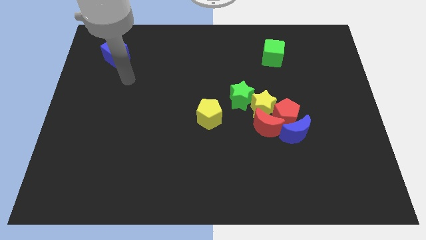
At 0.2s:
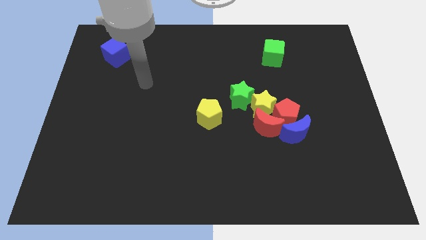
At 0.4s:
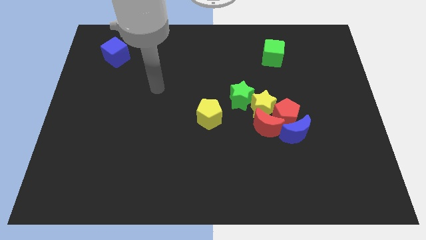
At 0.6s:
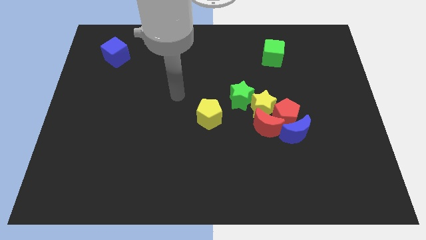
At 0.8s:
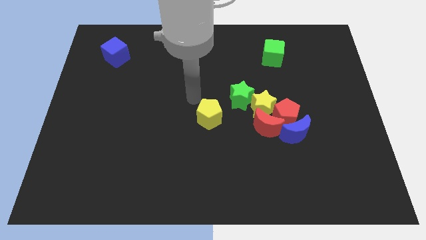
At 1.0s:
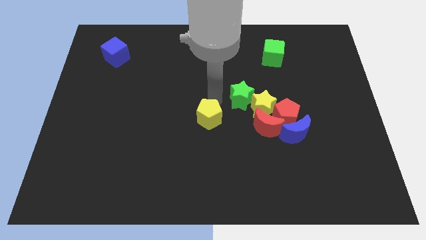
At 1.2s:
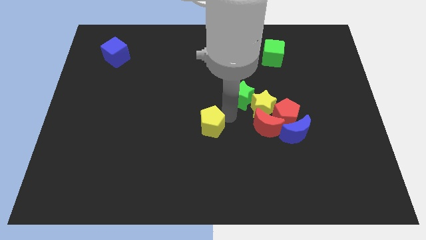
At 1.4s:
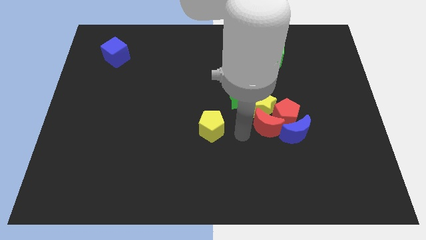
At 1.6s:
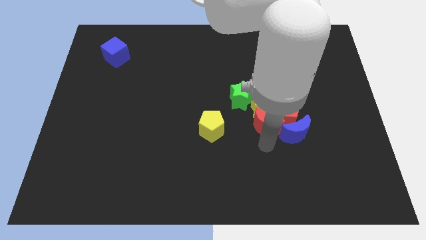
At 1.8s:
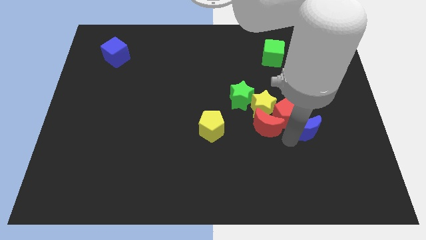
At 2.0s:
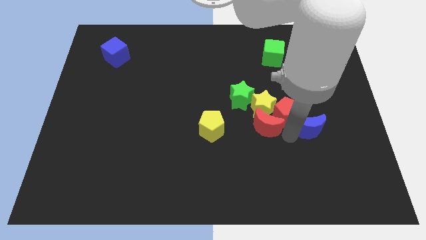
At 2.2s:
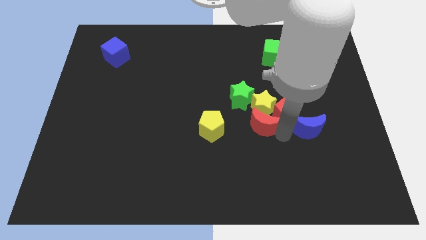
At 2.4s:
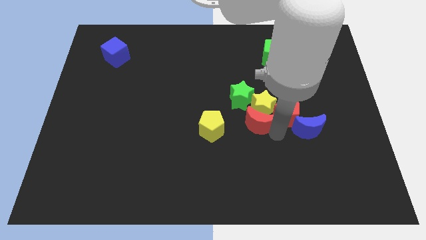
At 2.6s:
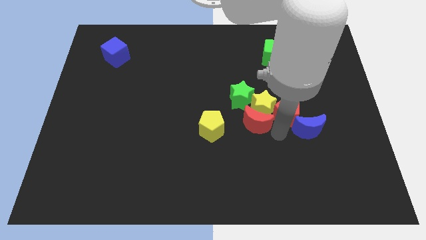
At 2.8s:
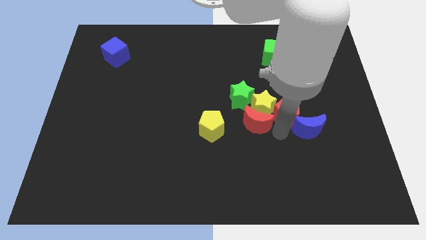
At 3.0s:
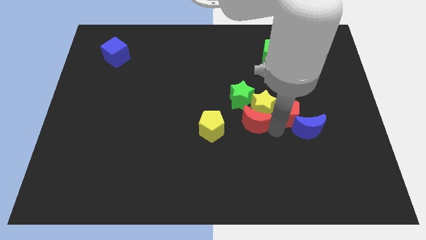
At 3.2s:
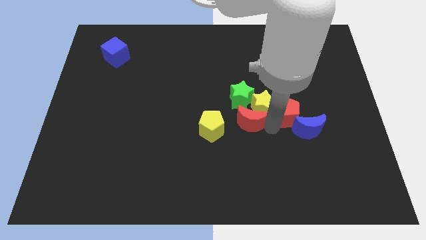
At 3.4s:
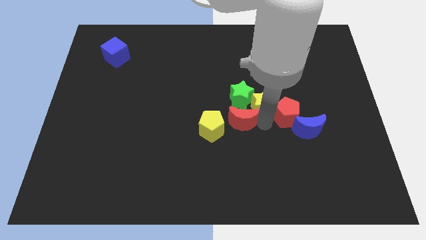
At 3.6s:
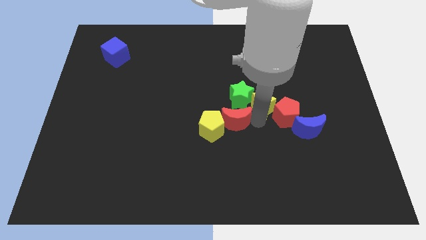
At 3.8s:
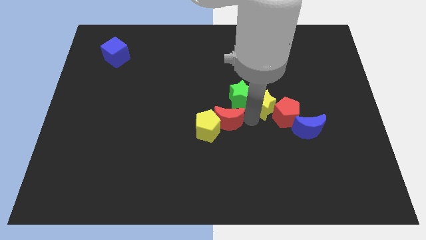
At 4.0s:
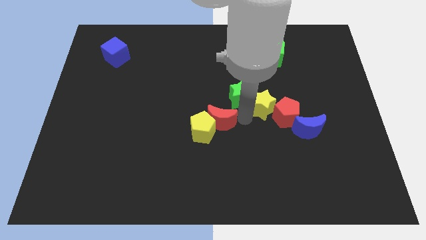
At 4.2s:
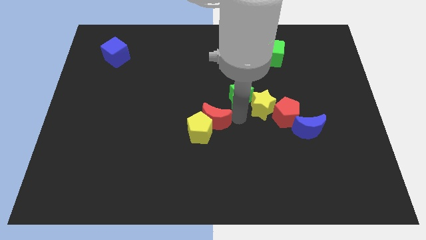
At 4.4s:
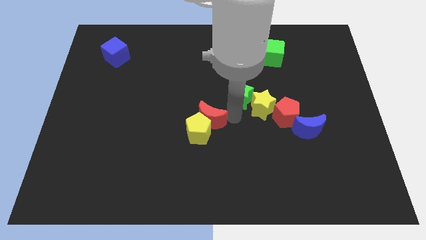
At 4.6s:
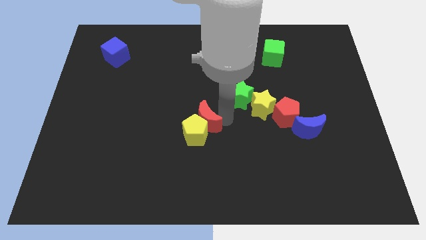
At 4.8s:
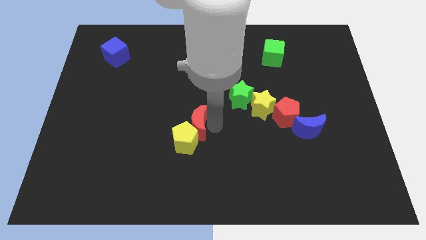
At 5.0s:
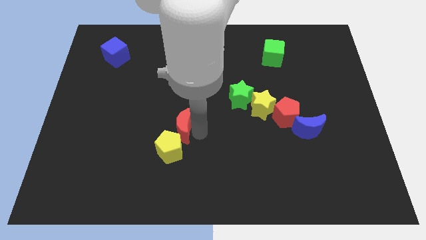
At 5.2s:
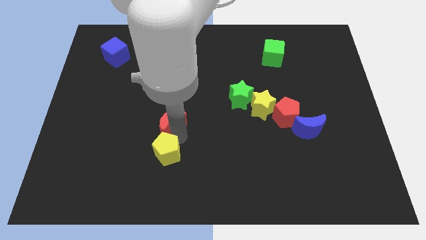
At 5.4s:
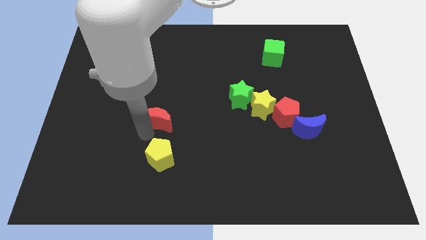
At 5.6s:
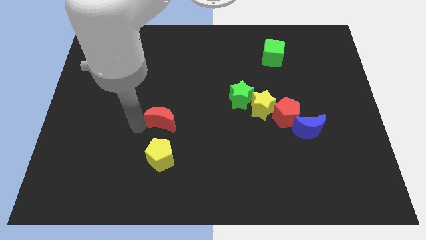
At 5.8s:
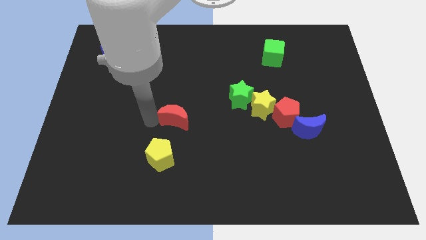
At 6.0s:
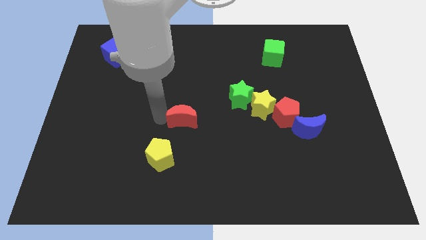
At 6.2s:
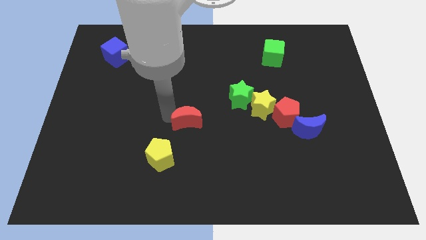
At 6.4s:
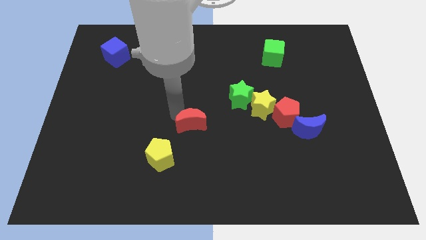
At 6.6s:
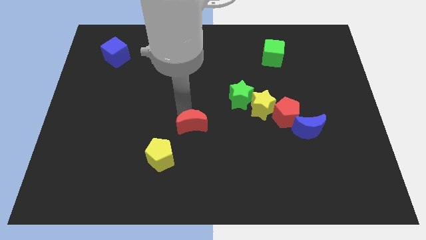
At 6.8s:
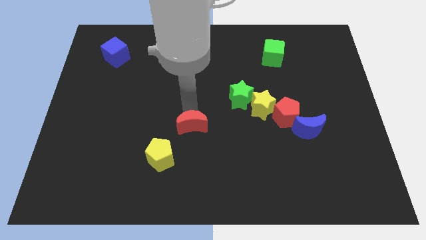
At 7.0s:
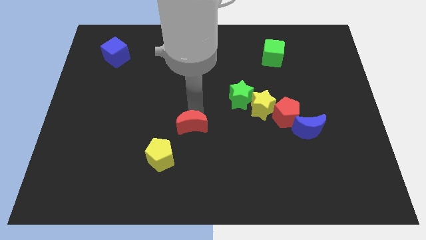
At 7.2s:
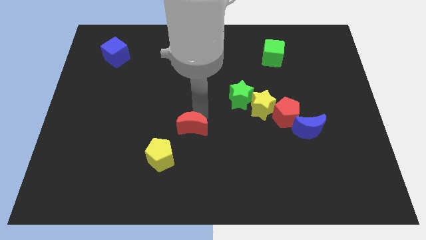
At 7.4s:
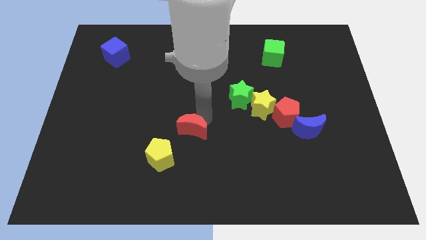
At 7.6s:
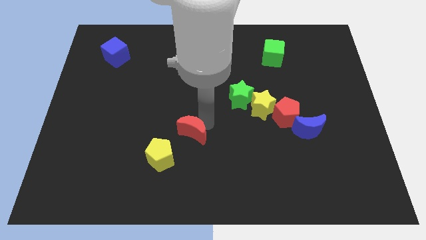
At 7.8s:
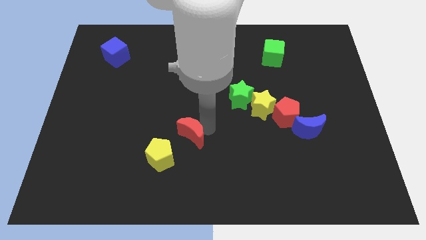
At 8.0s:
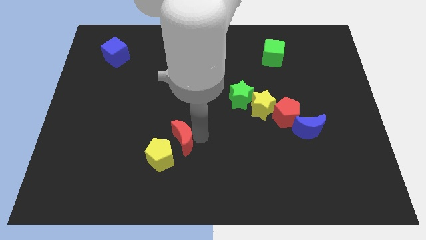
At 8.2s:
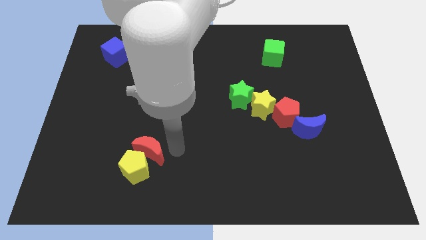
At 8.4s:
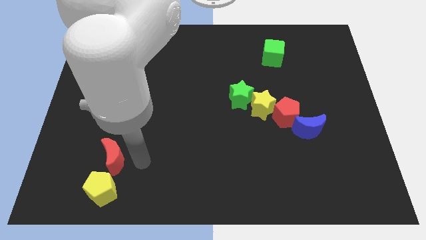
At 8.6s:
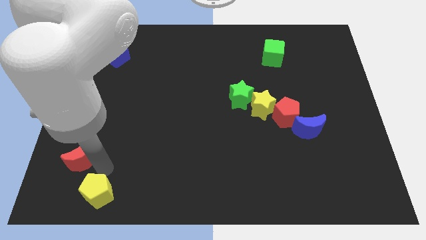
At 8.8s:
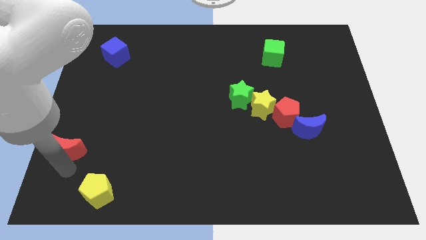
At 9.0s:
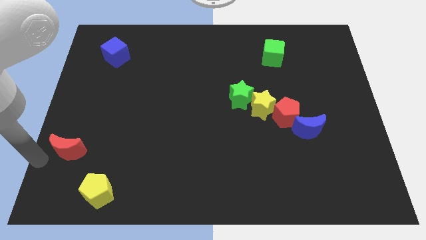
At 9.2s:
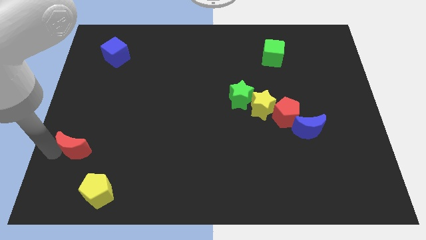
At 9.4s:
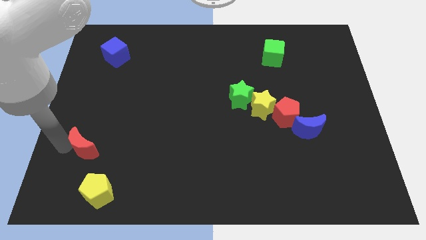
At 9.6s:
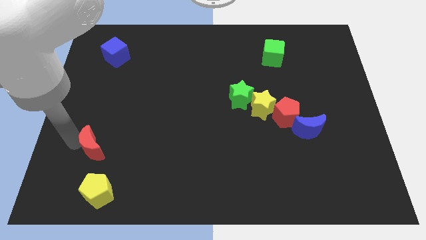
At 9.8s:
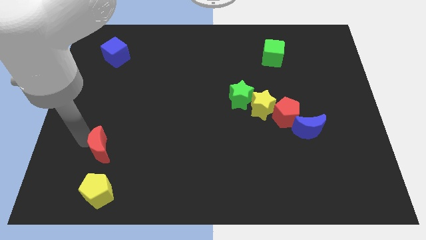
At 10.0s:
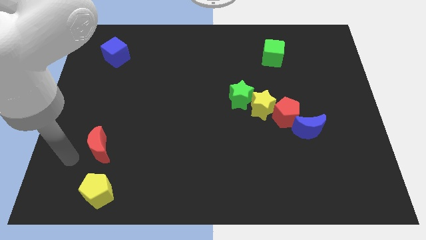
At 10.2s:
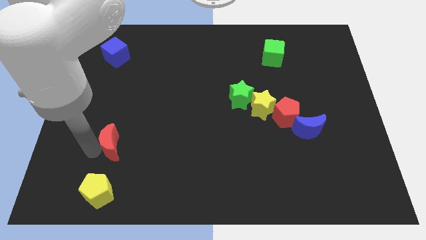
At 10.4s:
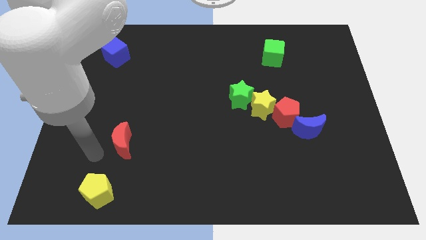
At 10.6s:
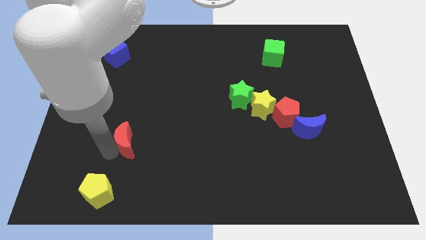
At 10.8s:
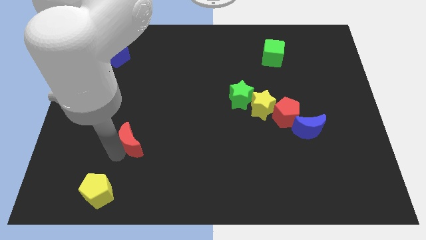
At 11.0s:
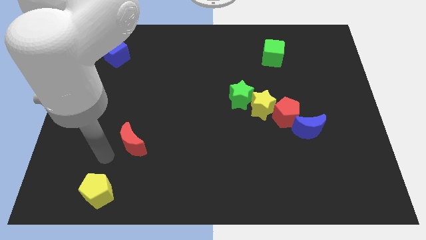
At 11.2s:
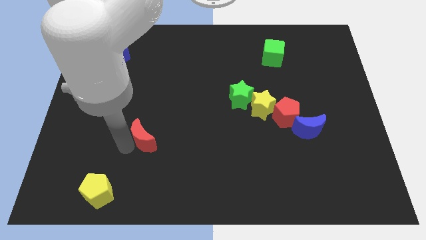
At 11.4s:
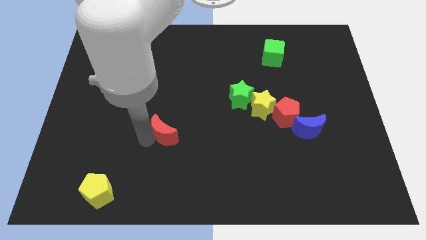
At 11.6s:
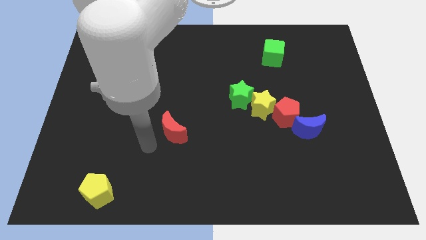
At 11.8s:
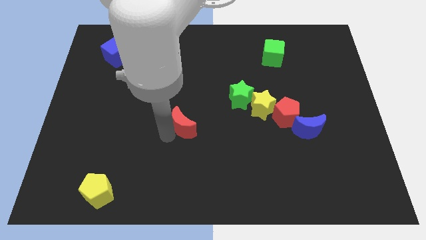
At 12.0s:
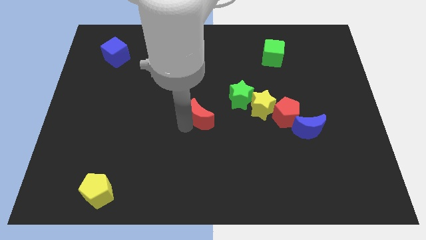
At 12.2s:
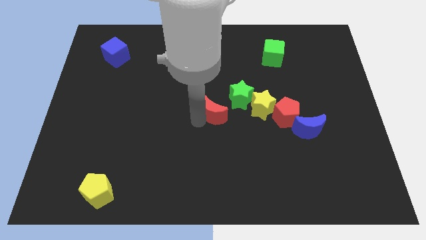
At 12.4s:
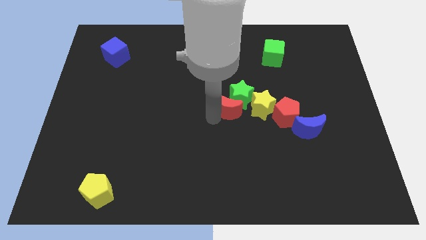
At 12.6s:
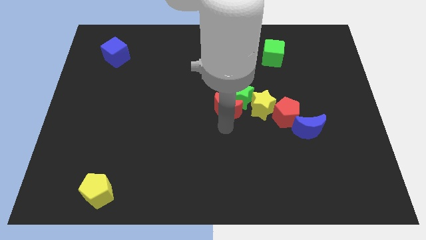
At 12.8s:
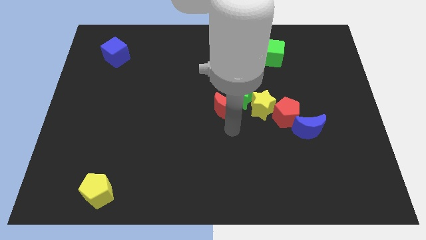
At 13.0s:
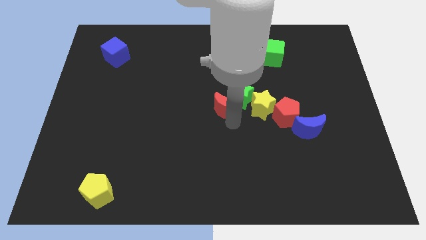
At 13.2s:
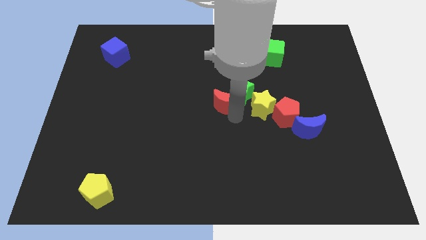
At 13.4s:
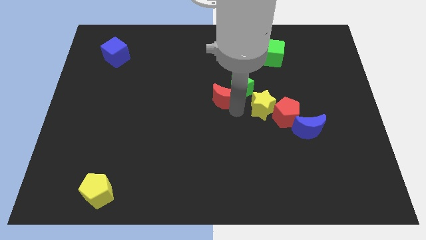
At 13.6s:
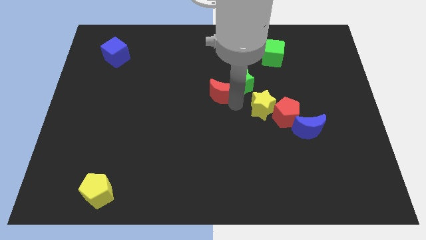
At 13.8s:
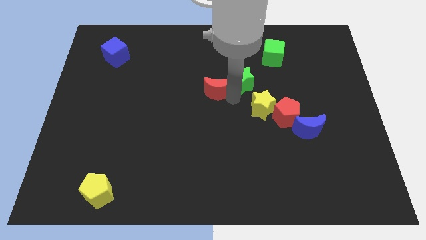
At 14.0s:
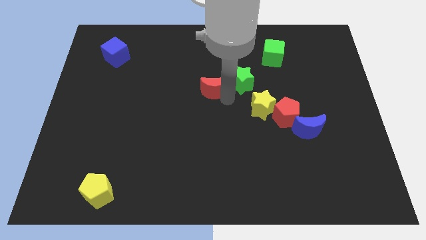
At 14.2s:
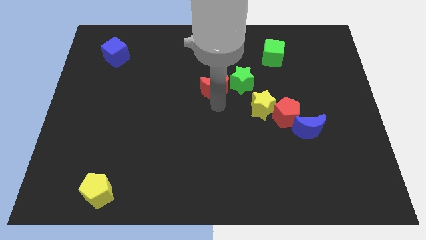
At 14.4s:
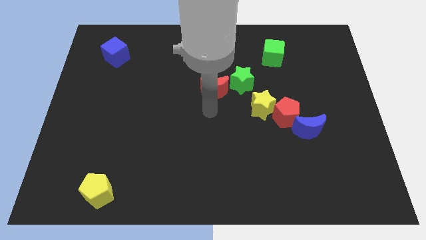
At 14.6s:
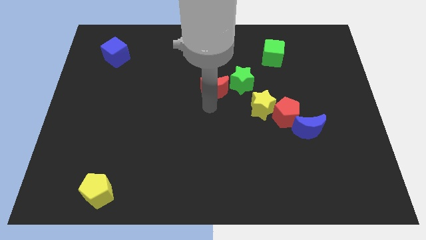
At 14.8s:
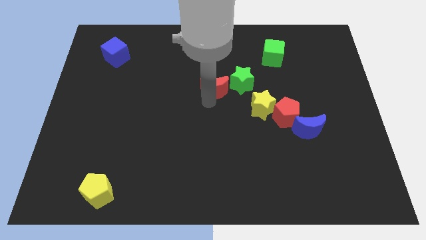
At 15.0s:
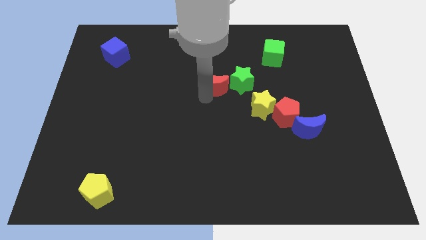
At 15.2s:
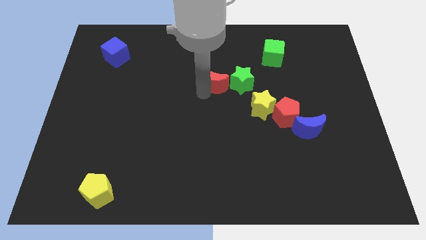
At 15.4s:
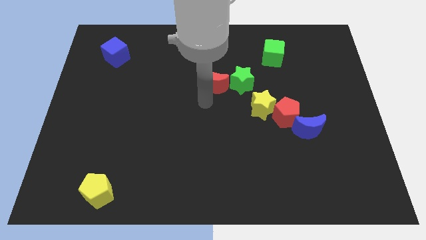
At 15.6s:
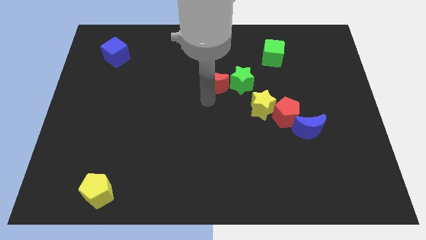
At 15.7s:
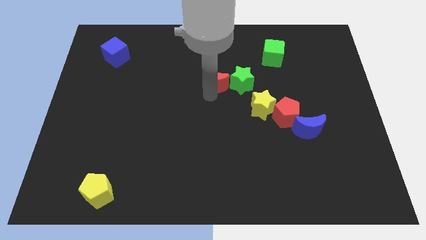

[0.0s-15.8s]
slide the red moon to the top left of the green star
